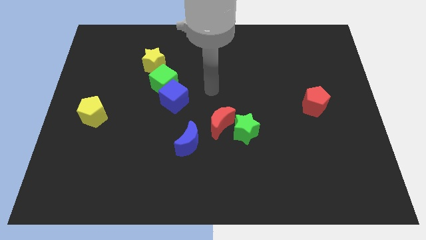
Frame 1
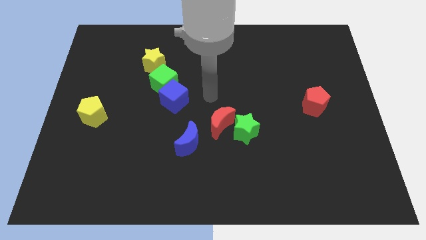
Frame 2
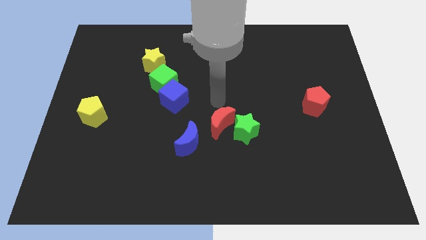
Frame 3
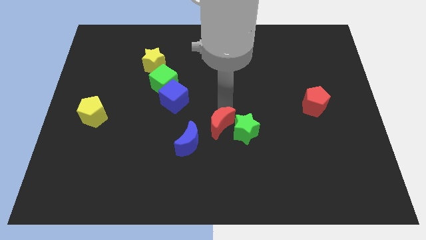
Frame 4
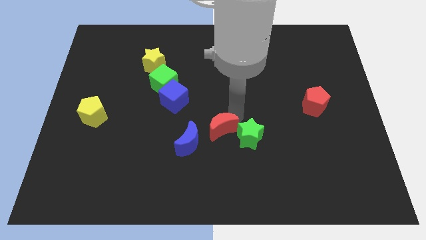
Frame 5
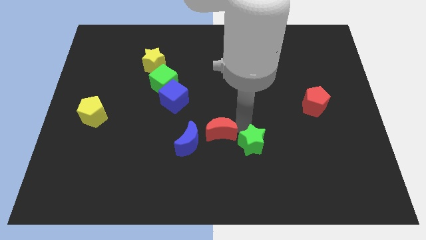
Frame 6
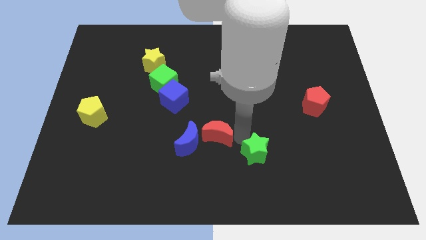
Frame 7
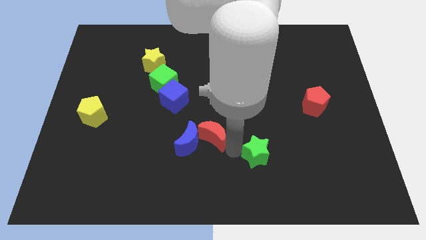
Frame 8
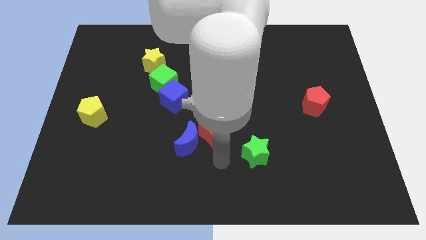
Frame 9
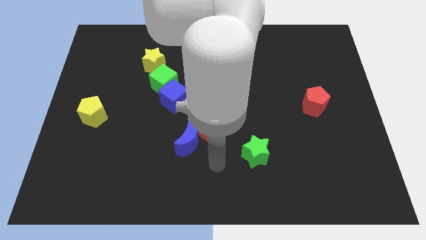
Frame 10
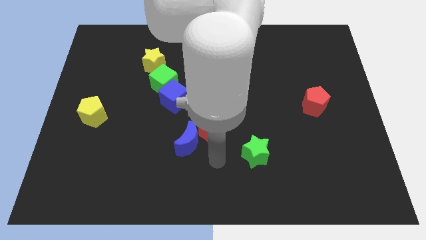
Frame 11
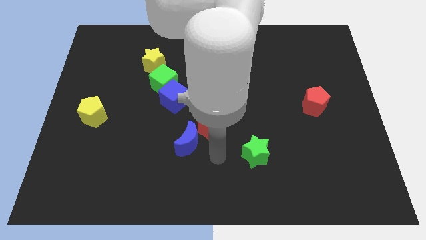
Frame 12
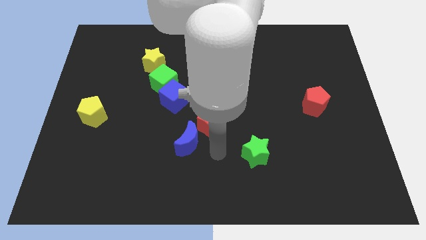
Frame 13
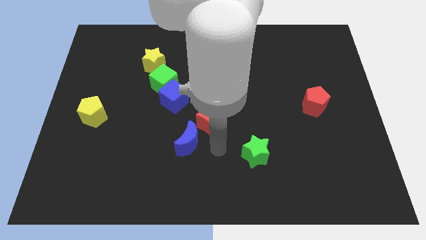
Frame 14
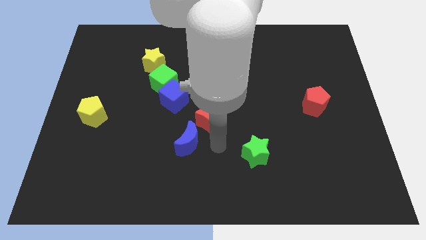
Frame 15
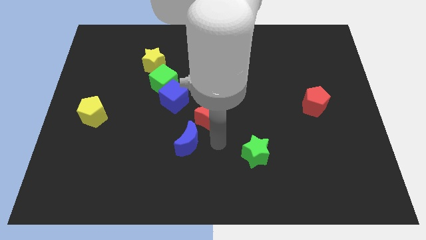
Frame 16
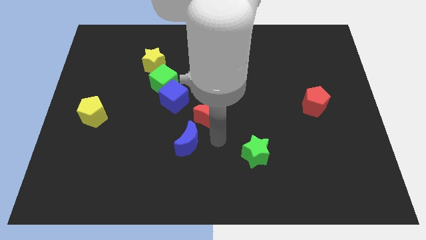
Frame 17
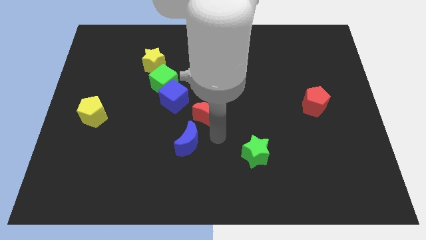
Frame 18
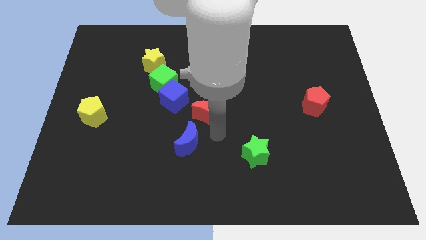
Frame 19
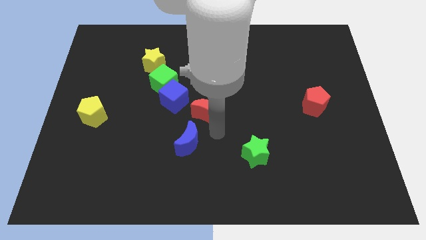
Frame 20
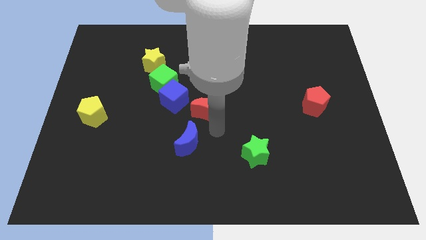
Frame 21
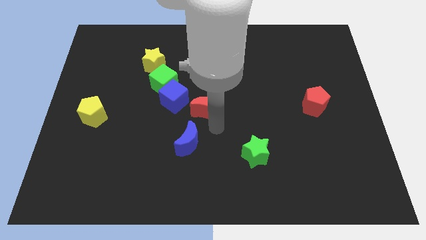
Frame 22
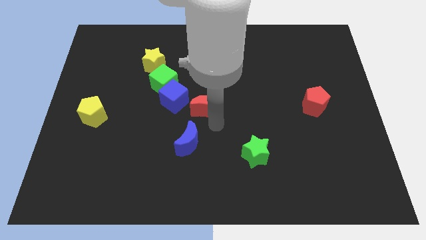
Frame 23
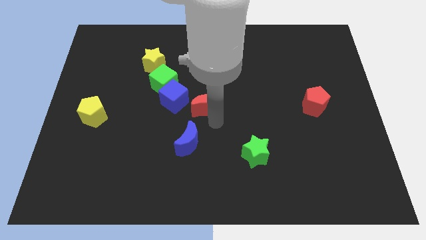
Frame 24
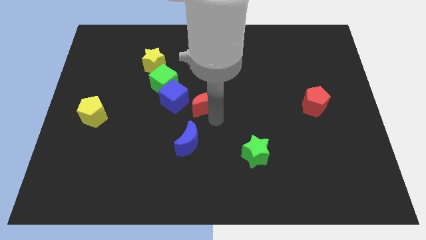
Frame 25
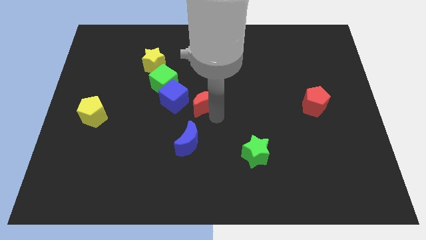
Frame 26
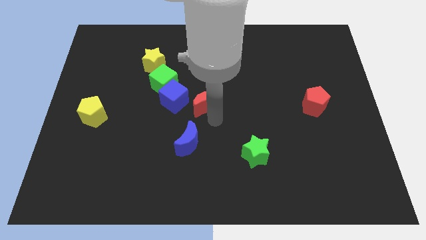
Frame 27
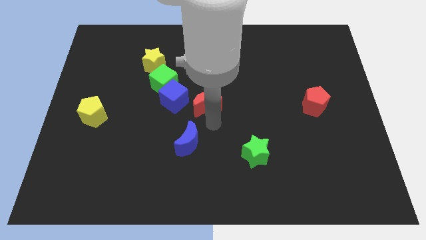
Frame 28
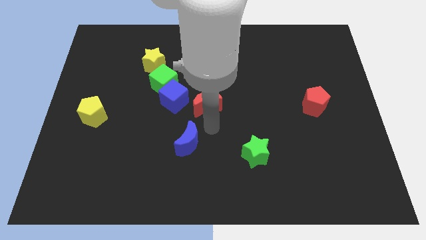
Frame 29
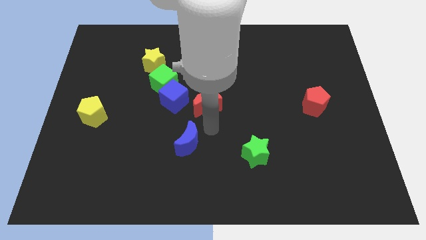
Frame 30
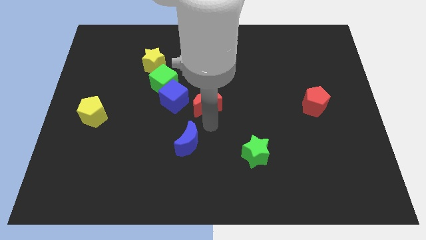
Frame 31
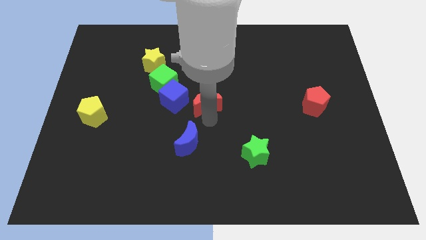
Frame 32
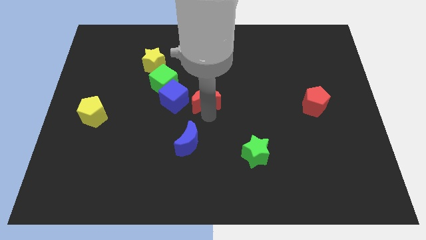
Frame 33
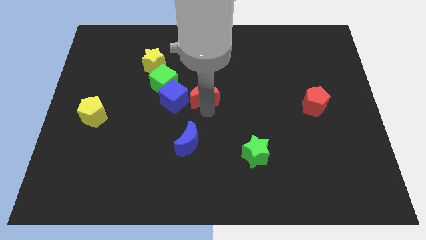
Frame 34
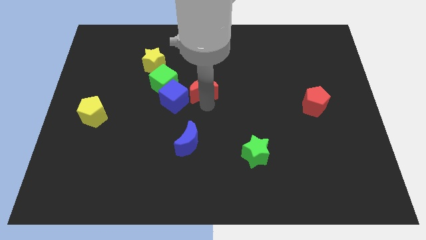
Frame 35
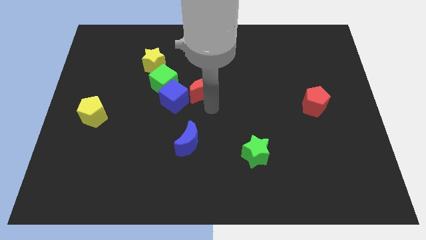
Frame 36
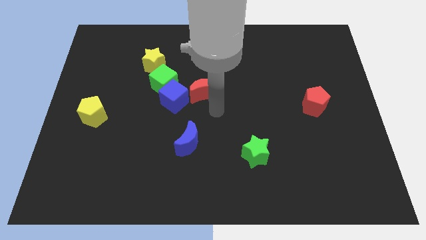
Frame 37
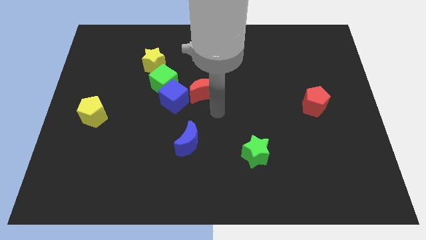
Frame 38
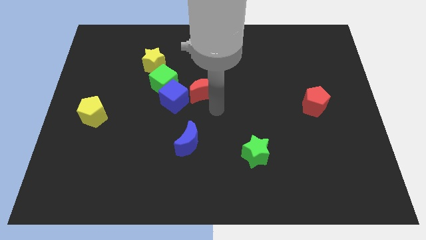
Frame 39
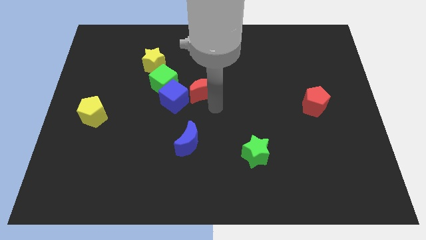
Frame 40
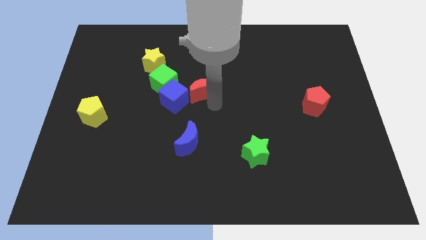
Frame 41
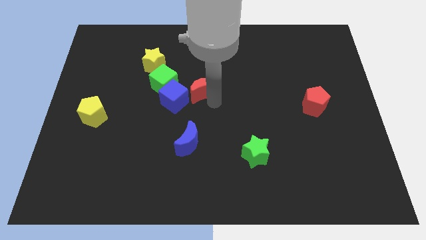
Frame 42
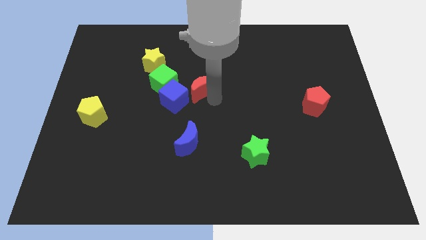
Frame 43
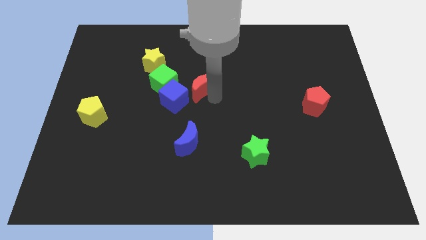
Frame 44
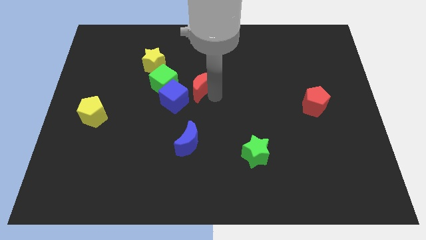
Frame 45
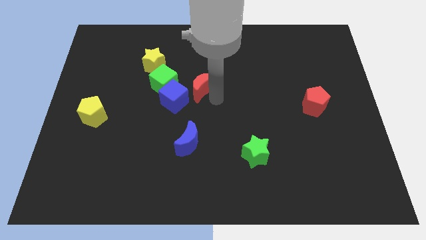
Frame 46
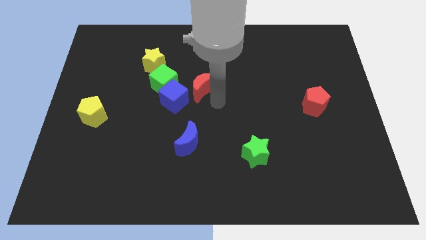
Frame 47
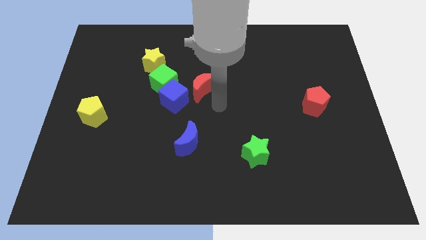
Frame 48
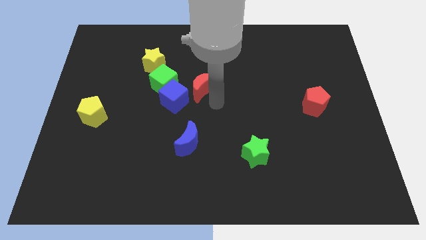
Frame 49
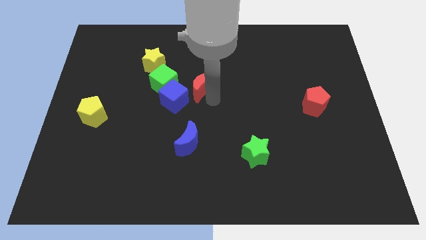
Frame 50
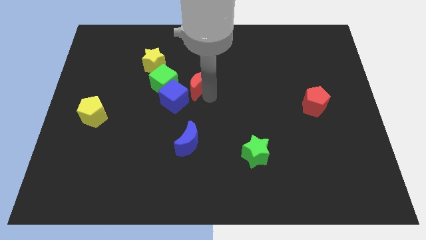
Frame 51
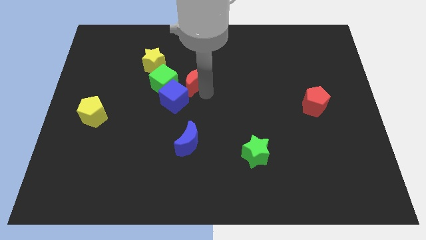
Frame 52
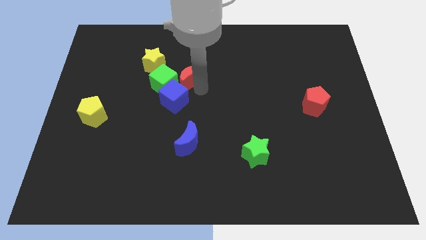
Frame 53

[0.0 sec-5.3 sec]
slide the red moon to the top right of the green cube
